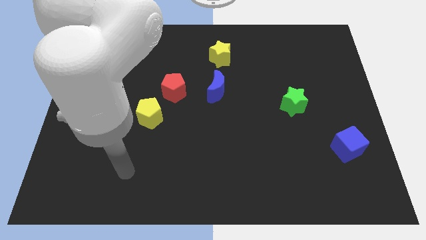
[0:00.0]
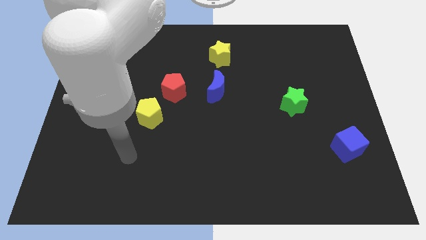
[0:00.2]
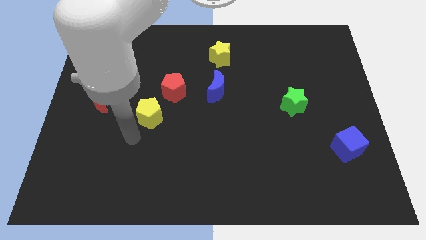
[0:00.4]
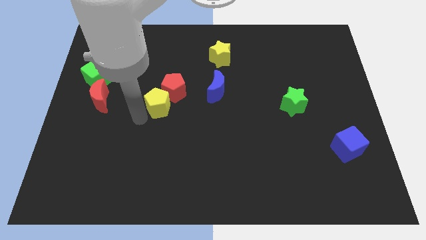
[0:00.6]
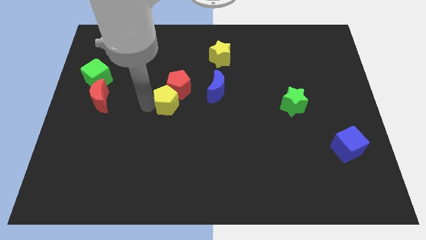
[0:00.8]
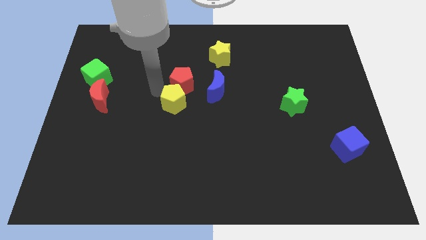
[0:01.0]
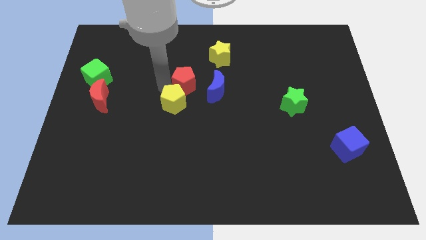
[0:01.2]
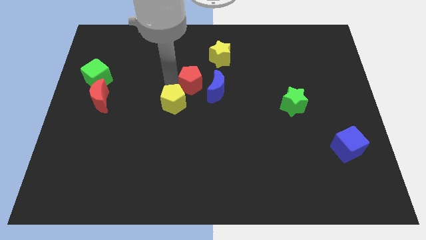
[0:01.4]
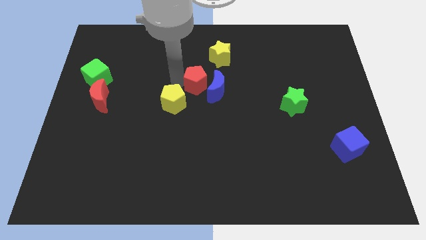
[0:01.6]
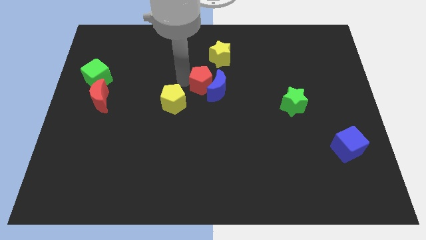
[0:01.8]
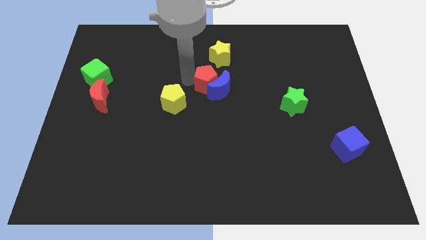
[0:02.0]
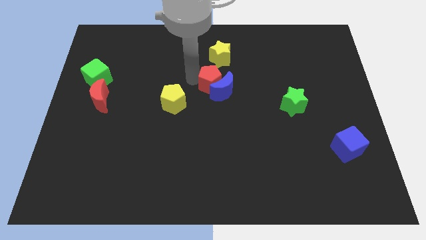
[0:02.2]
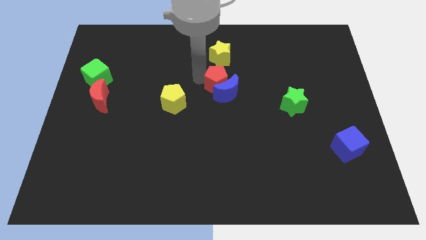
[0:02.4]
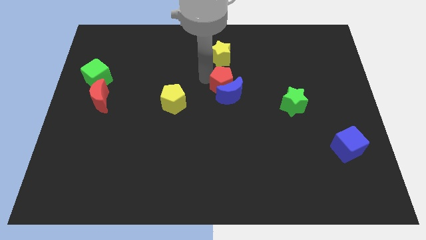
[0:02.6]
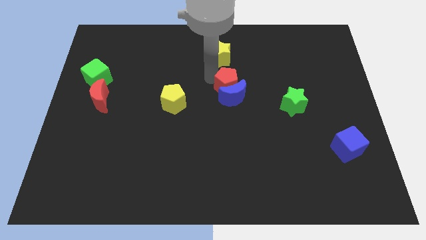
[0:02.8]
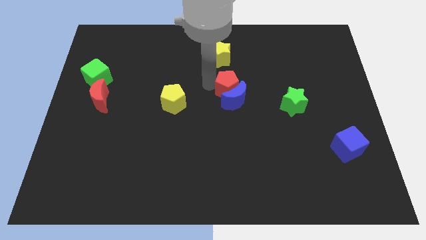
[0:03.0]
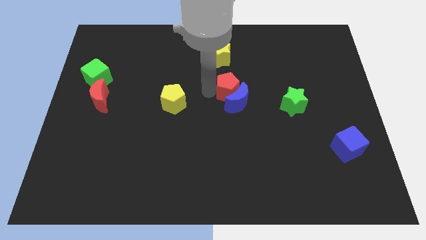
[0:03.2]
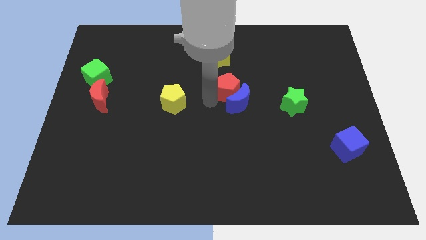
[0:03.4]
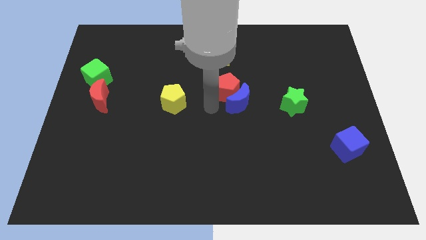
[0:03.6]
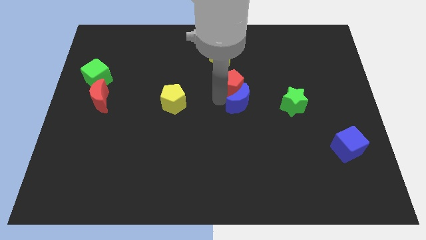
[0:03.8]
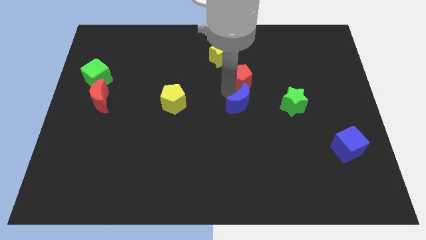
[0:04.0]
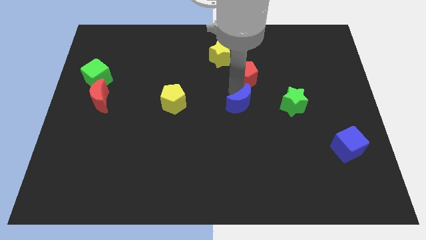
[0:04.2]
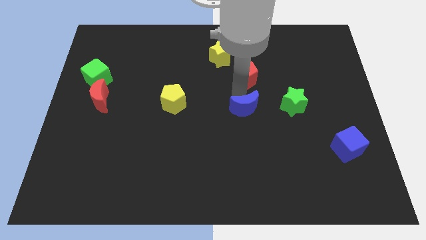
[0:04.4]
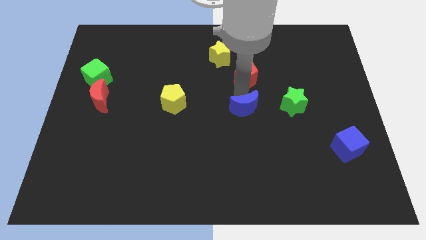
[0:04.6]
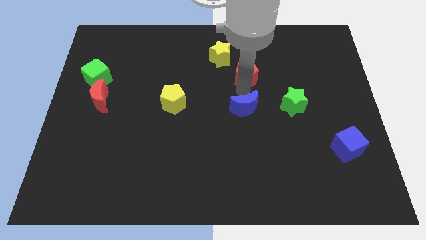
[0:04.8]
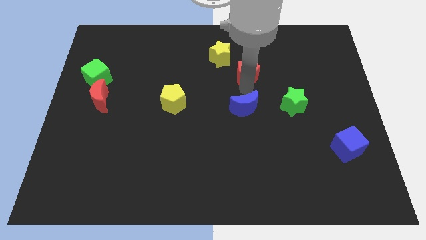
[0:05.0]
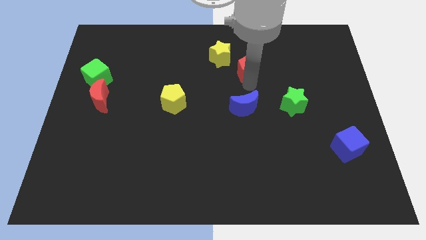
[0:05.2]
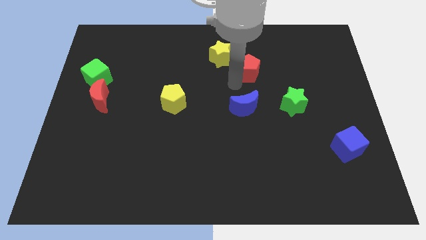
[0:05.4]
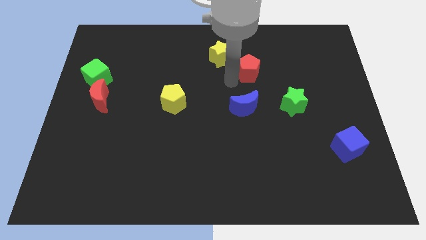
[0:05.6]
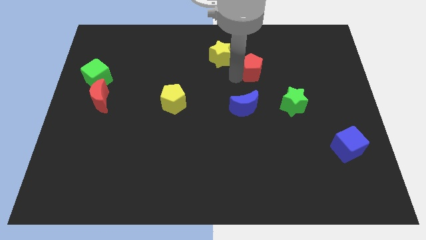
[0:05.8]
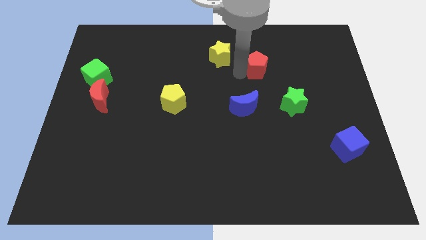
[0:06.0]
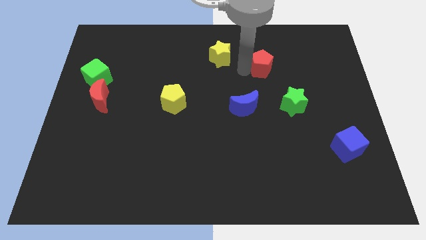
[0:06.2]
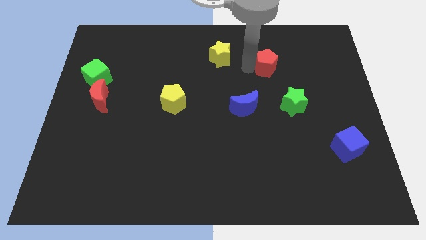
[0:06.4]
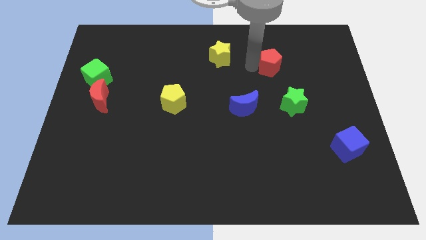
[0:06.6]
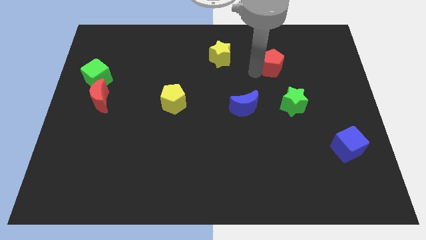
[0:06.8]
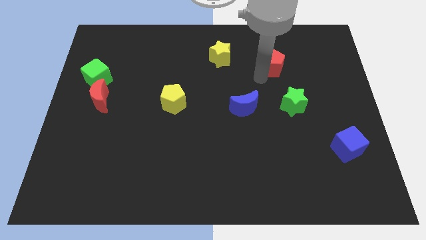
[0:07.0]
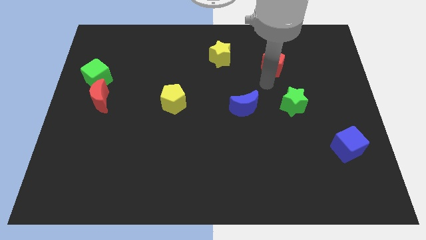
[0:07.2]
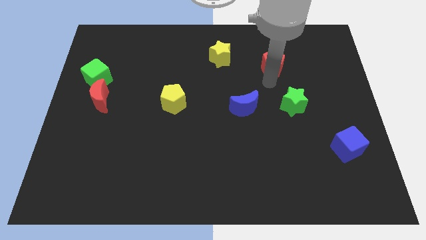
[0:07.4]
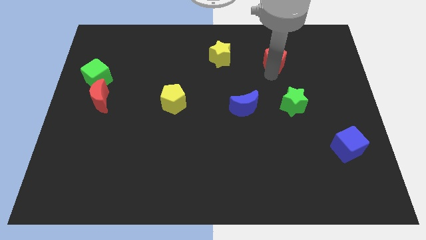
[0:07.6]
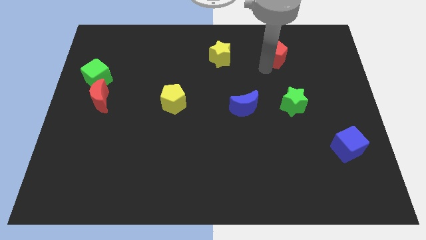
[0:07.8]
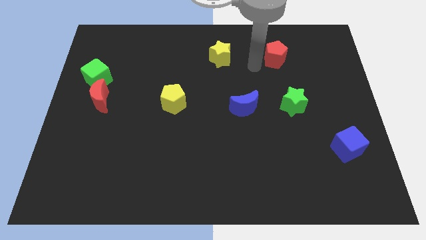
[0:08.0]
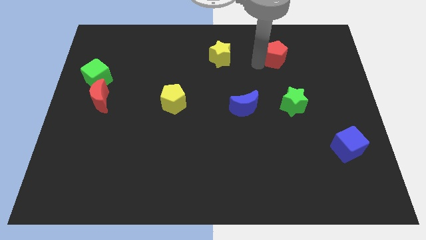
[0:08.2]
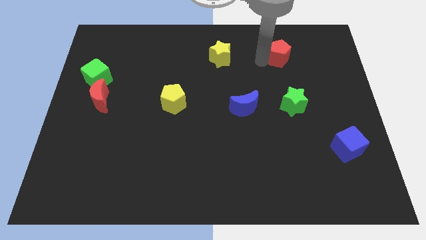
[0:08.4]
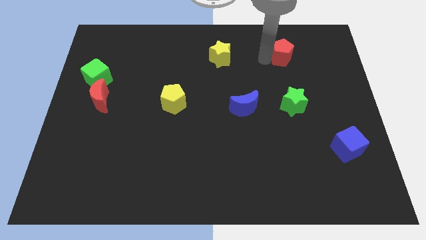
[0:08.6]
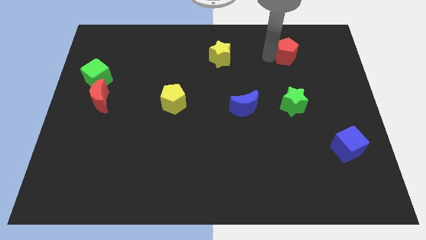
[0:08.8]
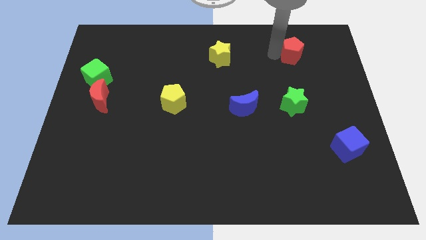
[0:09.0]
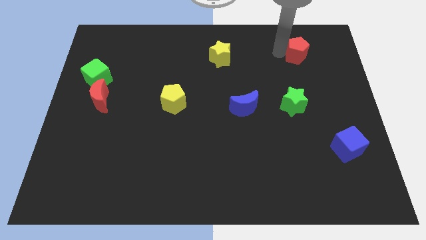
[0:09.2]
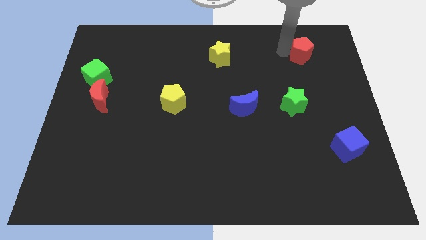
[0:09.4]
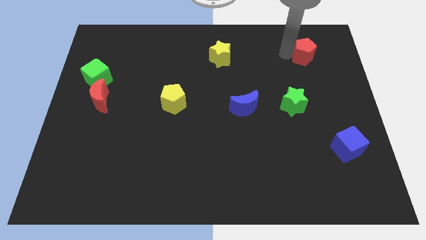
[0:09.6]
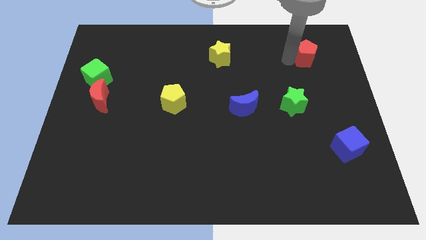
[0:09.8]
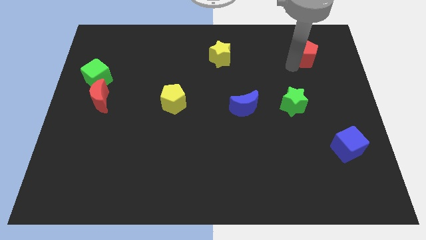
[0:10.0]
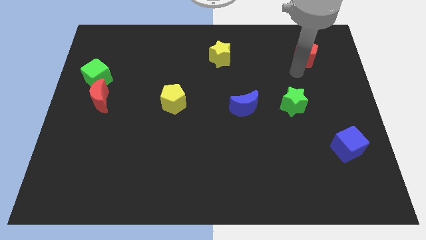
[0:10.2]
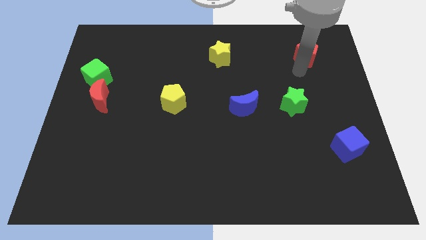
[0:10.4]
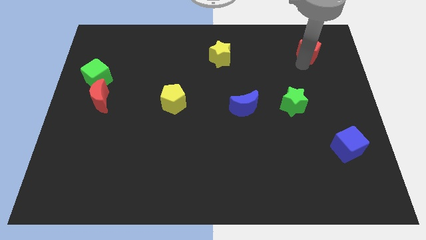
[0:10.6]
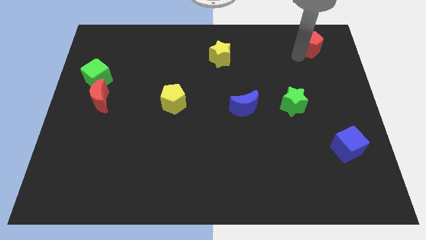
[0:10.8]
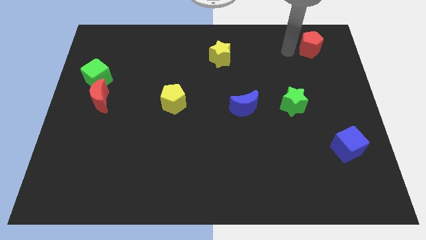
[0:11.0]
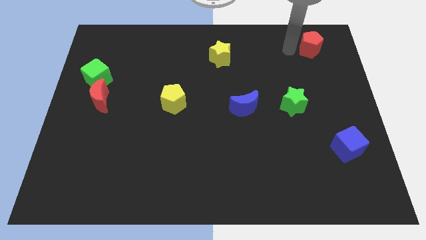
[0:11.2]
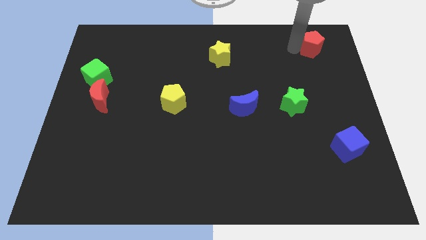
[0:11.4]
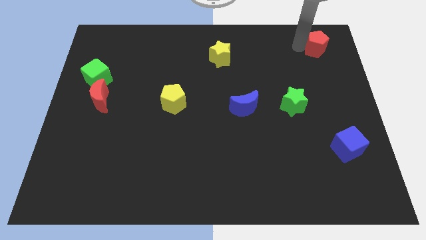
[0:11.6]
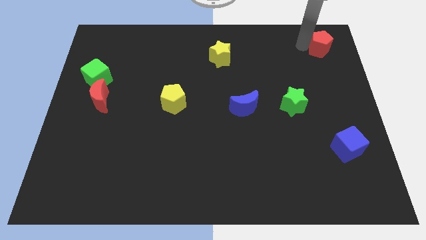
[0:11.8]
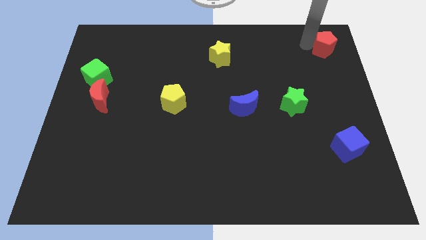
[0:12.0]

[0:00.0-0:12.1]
push the red pentagon to the upper right corner

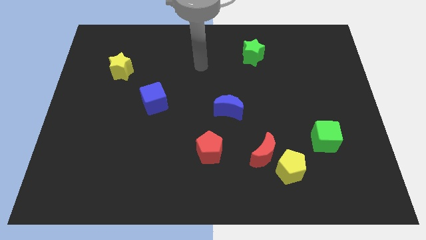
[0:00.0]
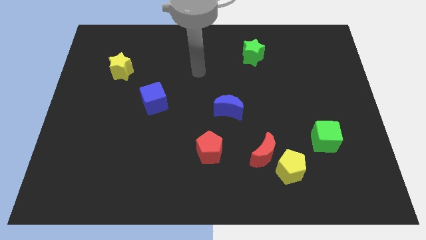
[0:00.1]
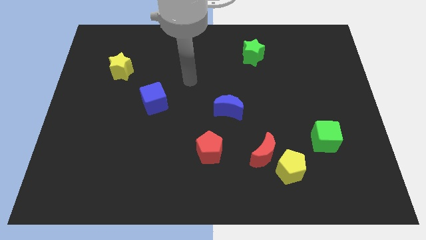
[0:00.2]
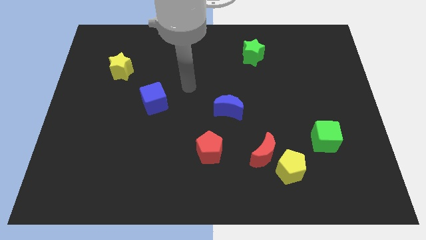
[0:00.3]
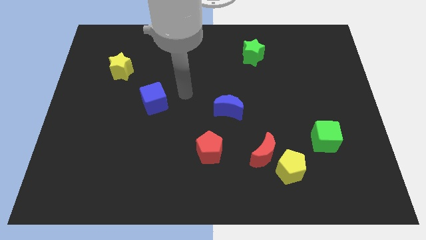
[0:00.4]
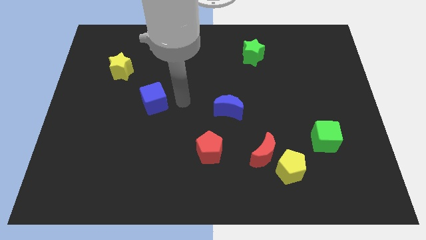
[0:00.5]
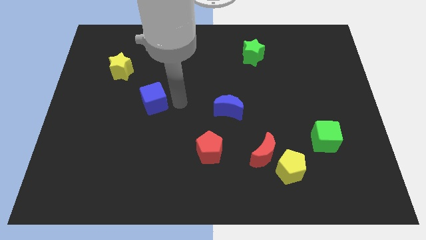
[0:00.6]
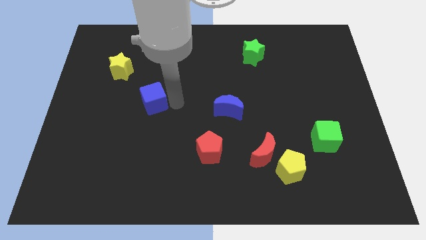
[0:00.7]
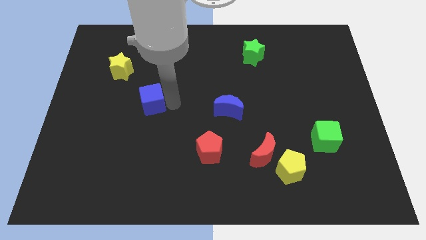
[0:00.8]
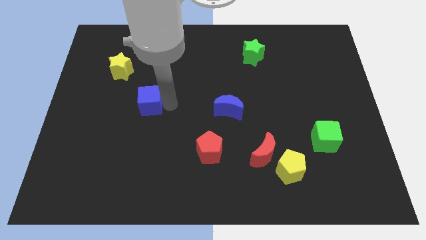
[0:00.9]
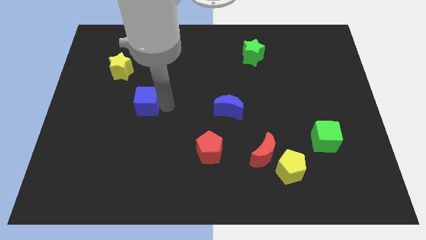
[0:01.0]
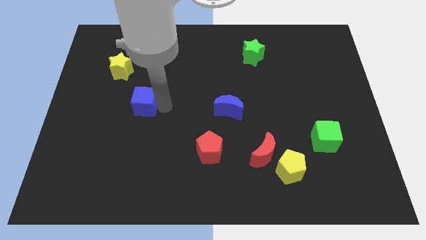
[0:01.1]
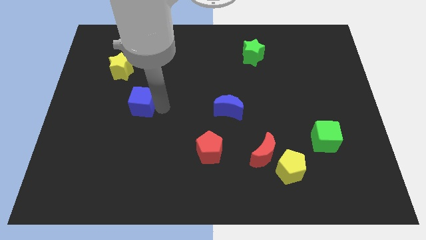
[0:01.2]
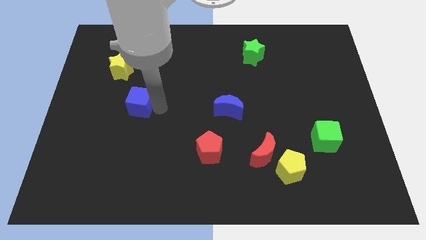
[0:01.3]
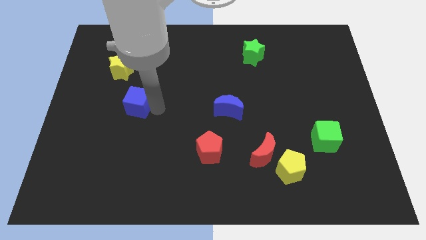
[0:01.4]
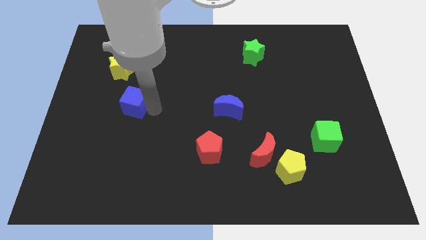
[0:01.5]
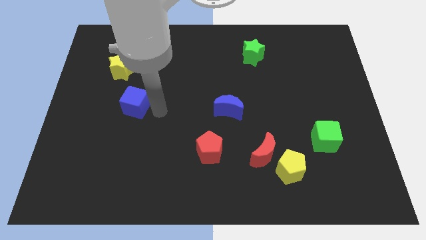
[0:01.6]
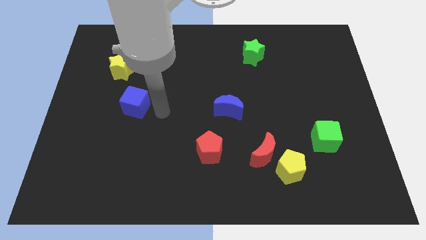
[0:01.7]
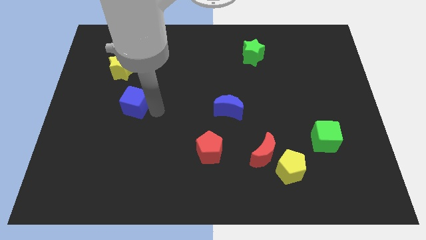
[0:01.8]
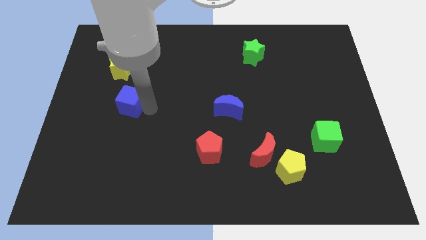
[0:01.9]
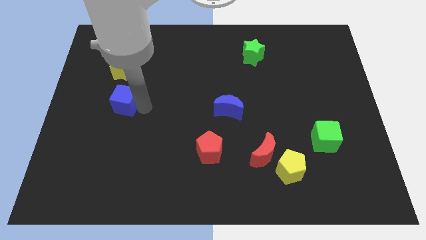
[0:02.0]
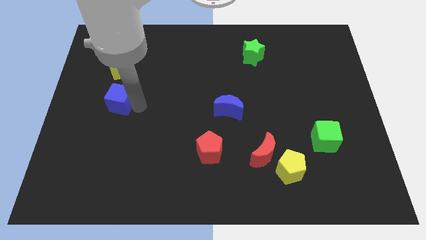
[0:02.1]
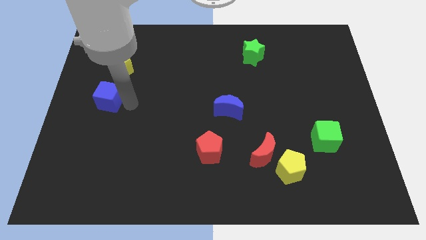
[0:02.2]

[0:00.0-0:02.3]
slide the blue cube to the center left
